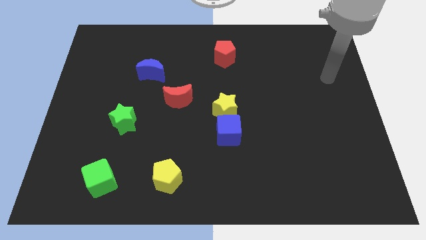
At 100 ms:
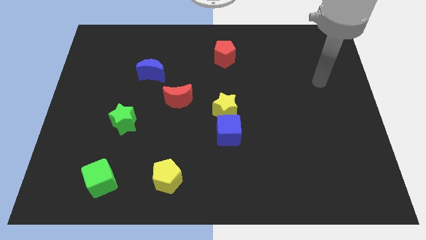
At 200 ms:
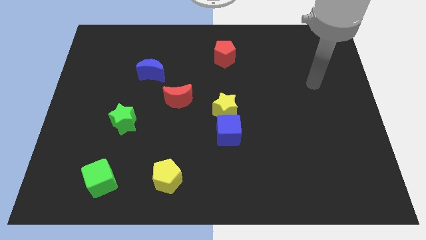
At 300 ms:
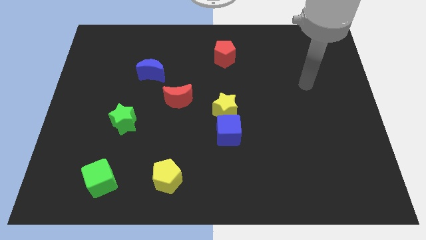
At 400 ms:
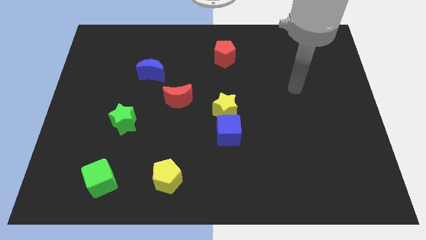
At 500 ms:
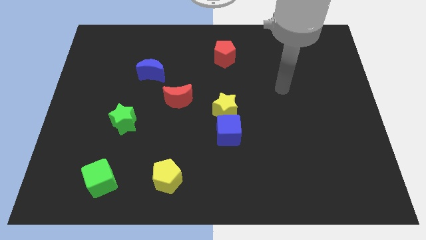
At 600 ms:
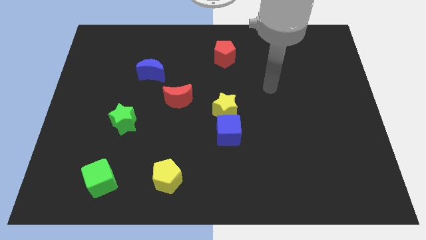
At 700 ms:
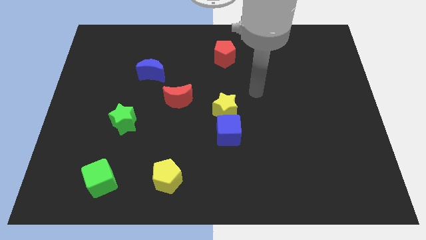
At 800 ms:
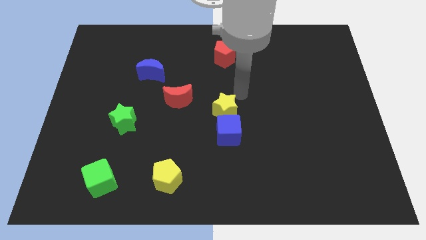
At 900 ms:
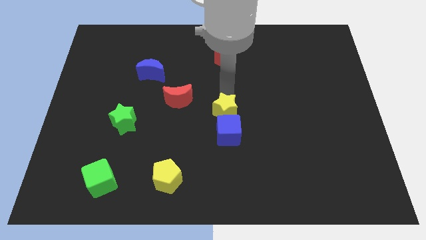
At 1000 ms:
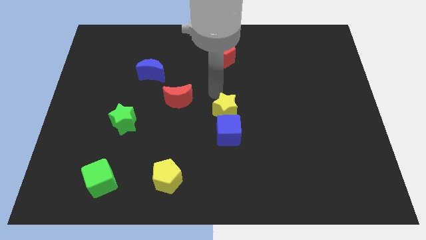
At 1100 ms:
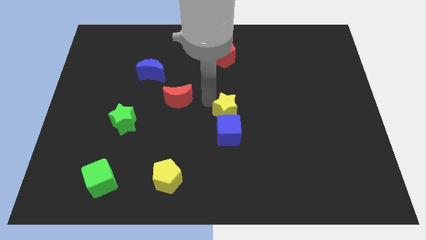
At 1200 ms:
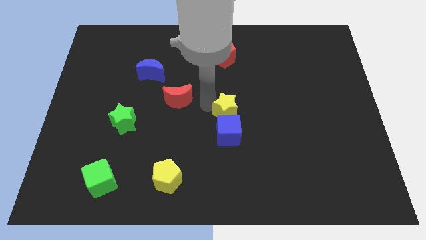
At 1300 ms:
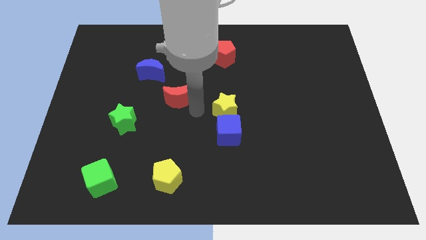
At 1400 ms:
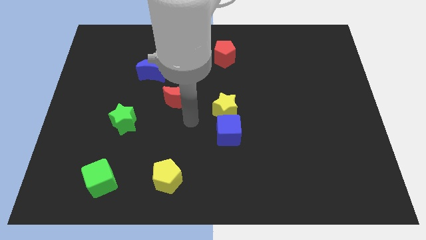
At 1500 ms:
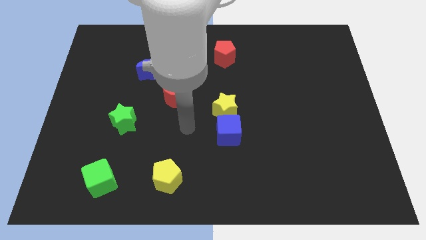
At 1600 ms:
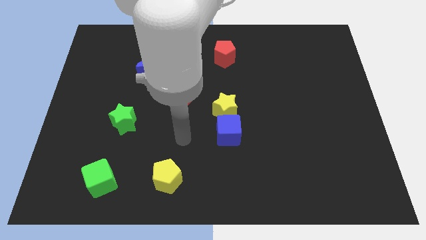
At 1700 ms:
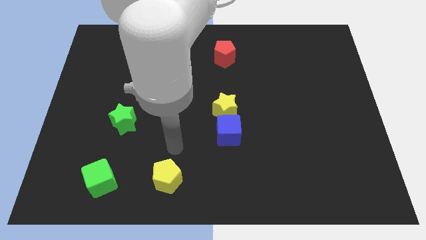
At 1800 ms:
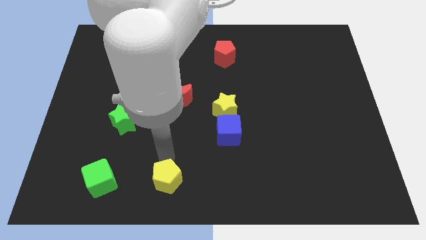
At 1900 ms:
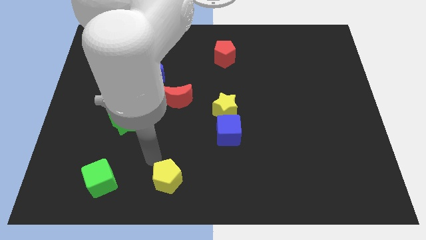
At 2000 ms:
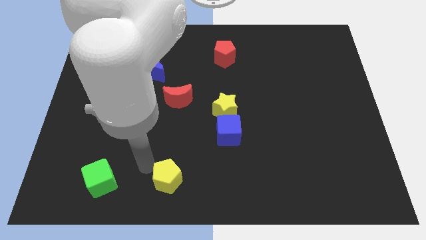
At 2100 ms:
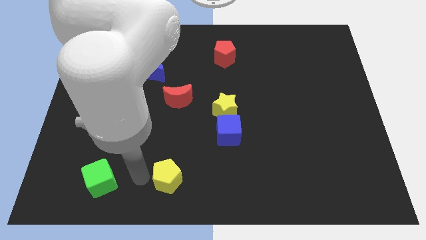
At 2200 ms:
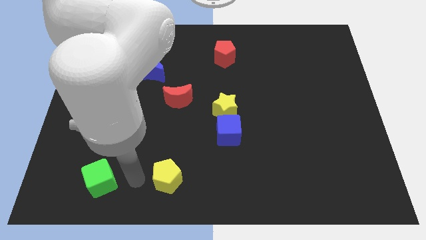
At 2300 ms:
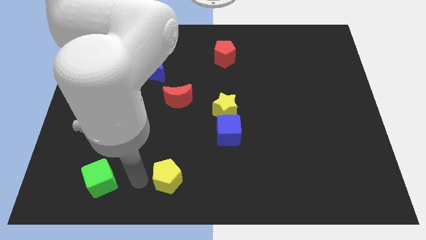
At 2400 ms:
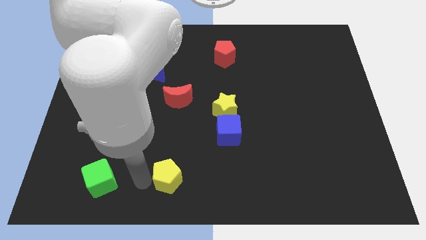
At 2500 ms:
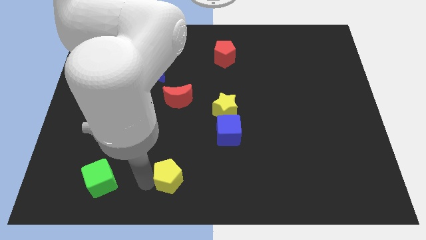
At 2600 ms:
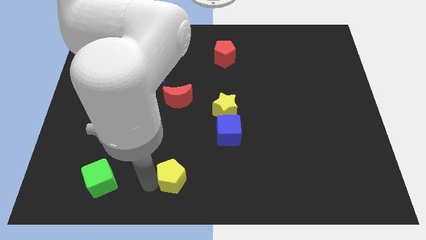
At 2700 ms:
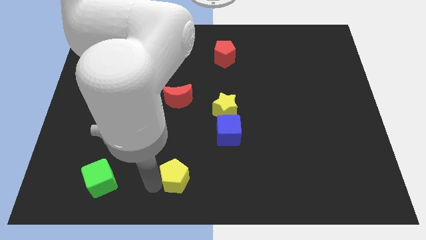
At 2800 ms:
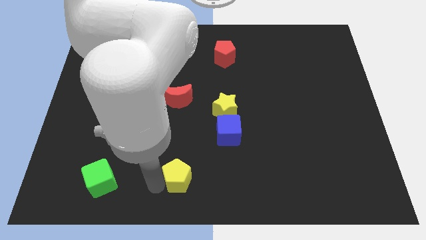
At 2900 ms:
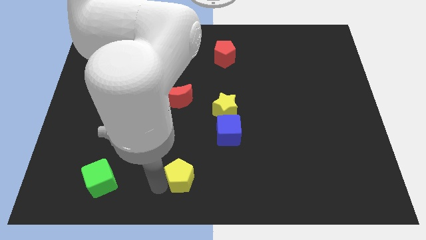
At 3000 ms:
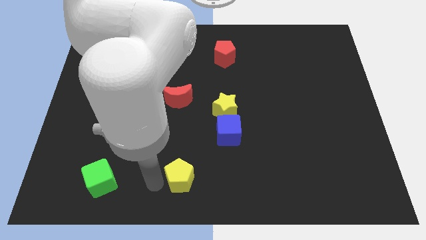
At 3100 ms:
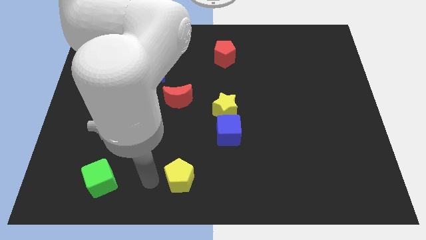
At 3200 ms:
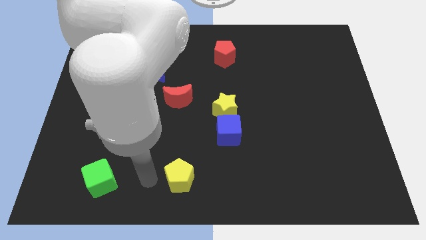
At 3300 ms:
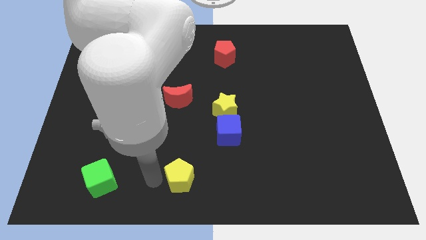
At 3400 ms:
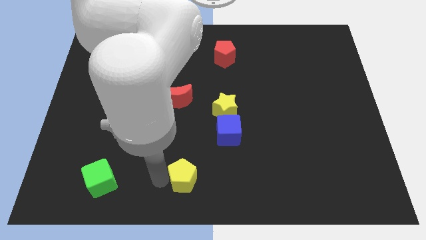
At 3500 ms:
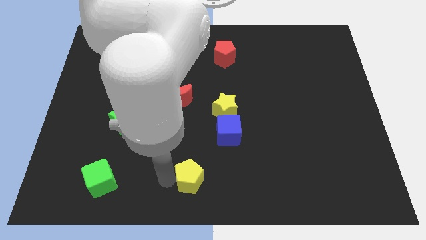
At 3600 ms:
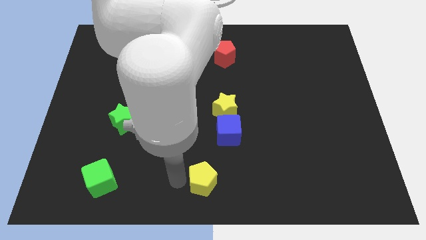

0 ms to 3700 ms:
slightly push the yellow pentagon to the right

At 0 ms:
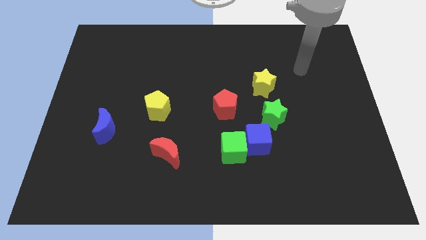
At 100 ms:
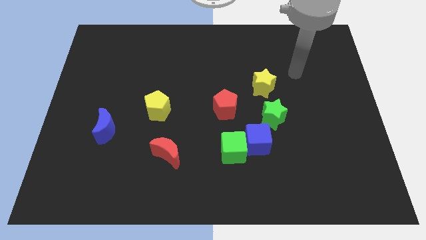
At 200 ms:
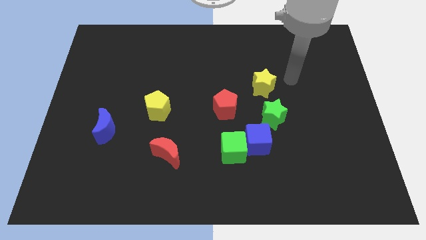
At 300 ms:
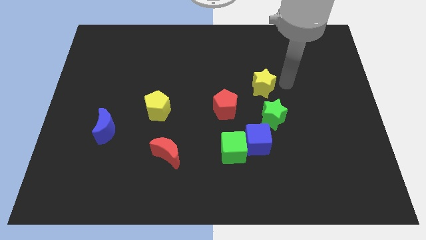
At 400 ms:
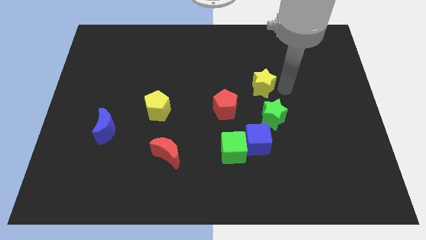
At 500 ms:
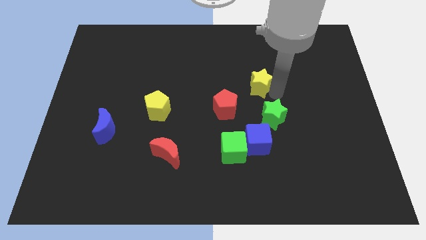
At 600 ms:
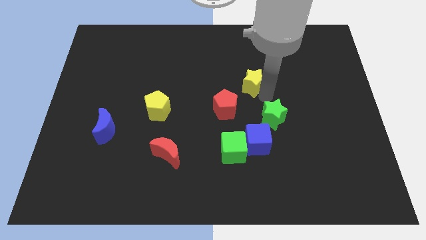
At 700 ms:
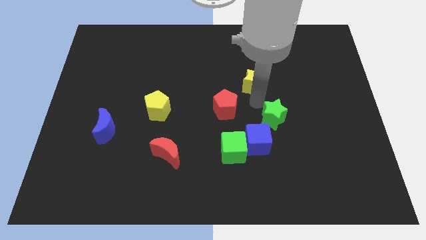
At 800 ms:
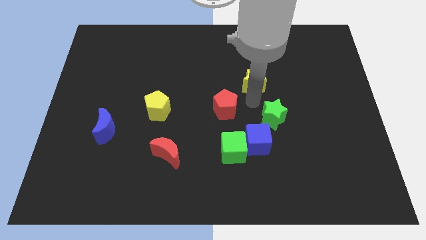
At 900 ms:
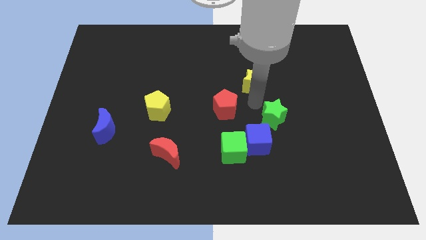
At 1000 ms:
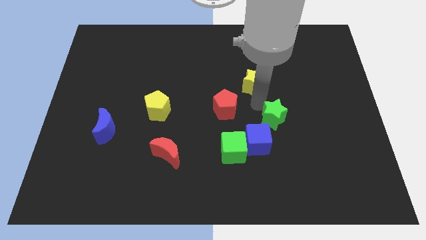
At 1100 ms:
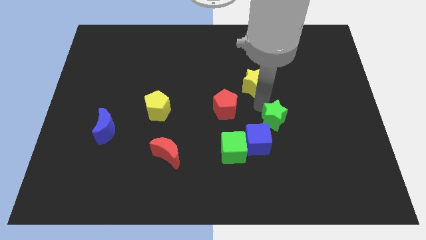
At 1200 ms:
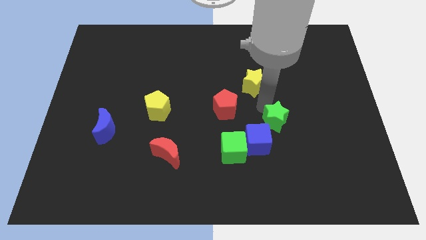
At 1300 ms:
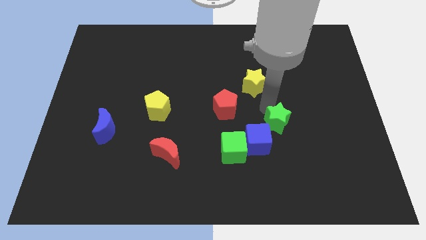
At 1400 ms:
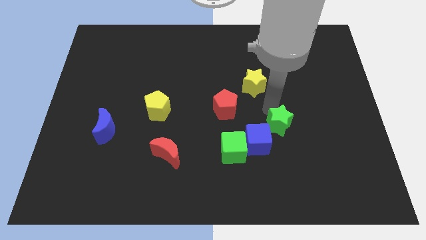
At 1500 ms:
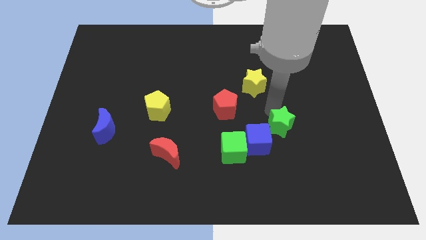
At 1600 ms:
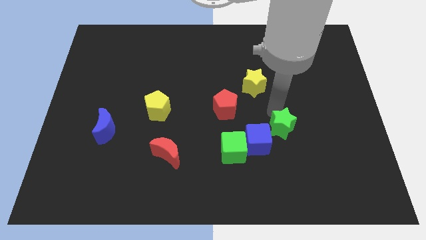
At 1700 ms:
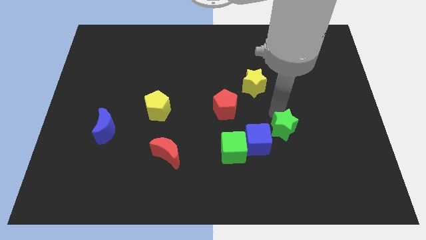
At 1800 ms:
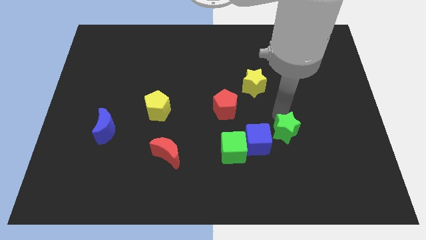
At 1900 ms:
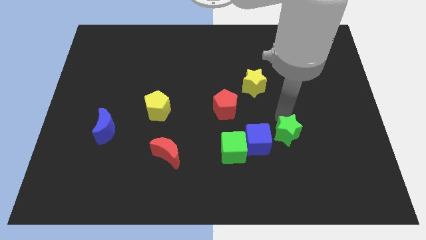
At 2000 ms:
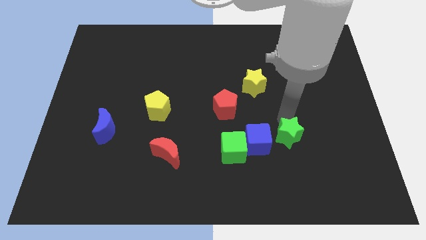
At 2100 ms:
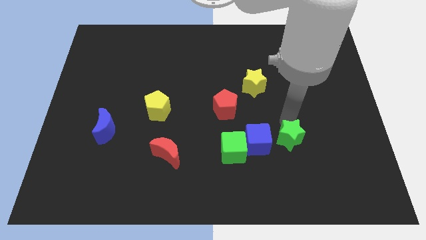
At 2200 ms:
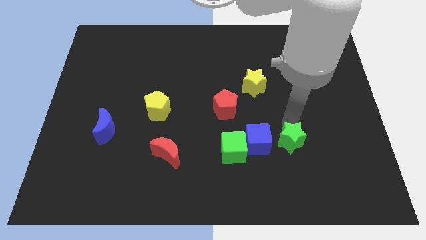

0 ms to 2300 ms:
push the green star somewhat downwards and to the right diagonally

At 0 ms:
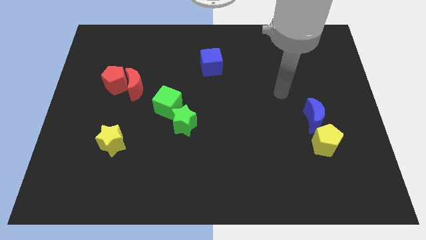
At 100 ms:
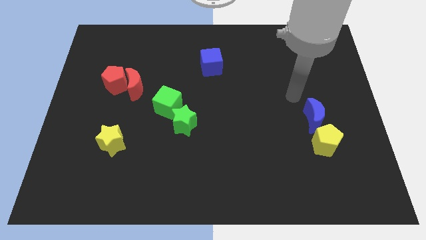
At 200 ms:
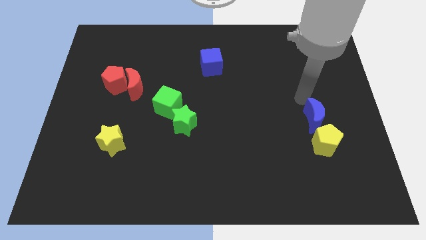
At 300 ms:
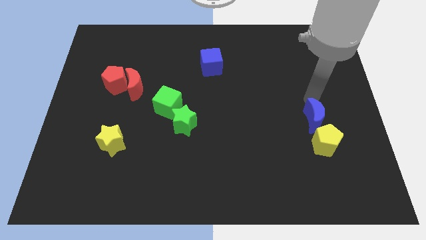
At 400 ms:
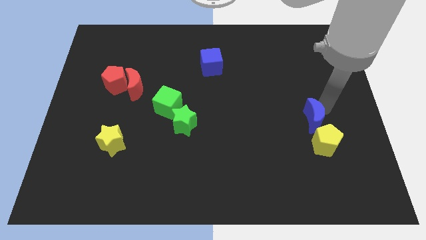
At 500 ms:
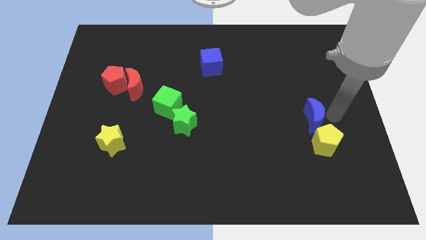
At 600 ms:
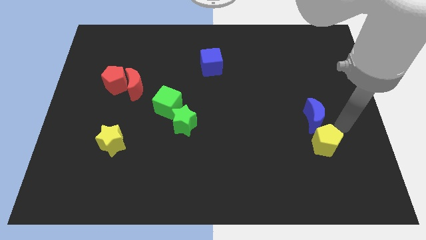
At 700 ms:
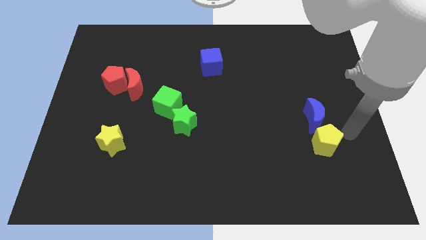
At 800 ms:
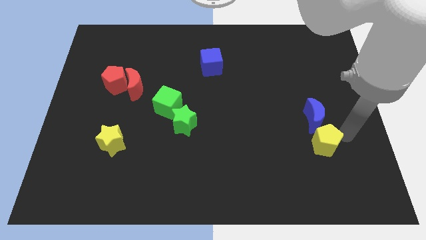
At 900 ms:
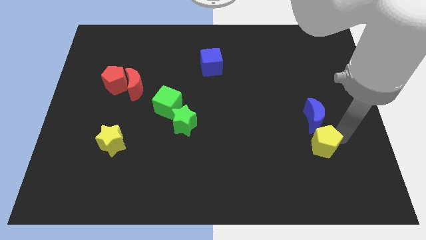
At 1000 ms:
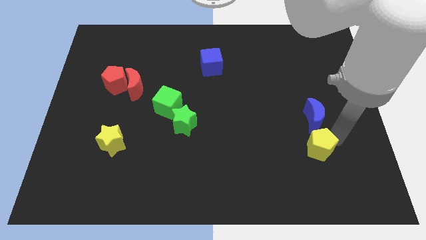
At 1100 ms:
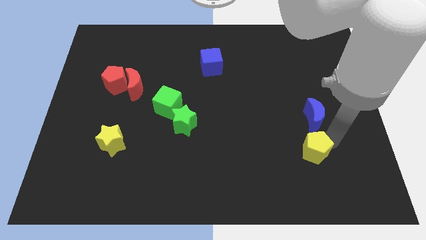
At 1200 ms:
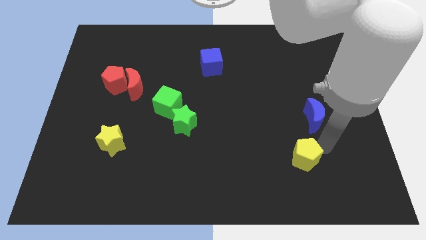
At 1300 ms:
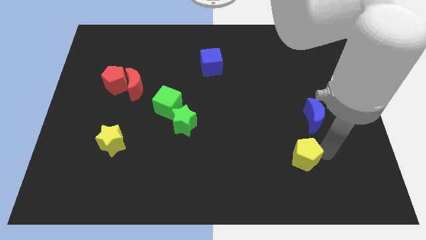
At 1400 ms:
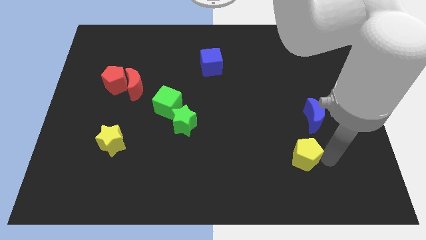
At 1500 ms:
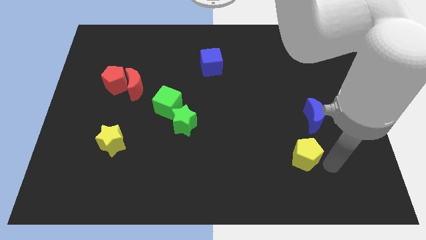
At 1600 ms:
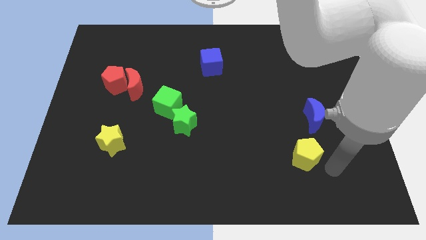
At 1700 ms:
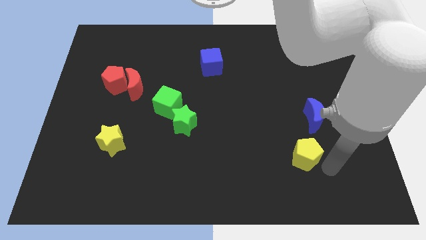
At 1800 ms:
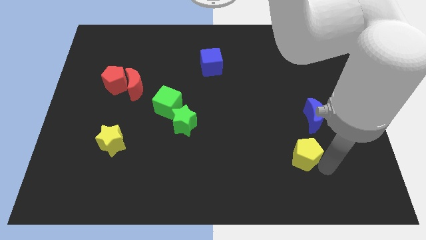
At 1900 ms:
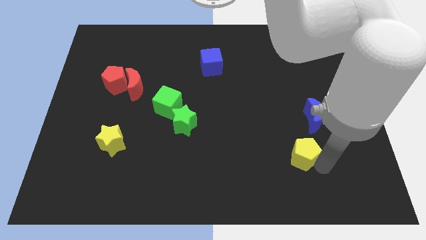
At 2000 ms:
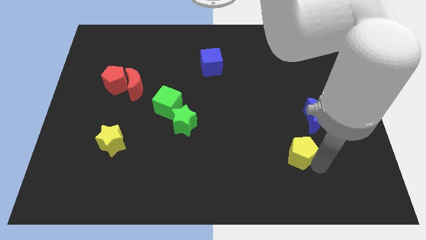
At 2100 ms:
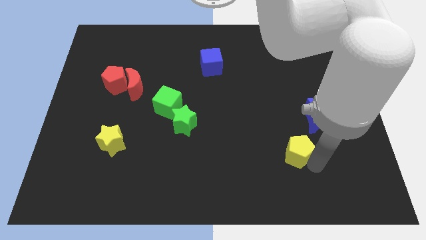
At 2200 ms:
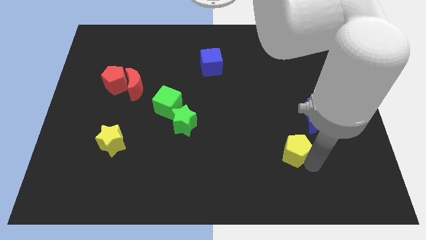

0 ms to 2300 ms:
slide the yellow pentagon a little to the left

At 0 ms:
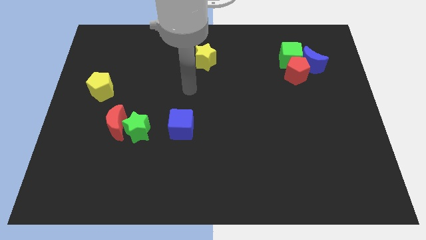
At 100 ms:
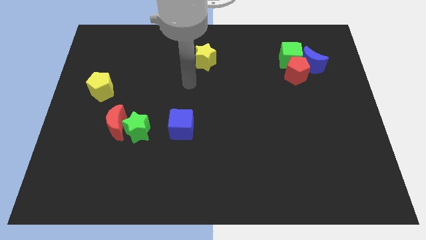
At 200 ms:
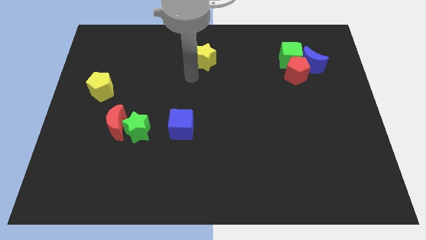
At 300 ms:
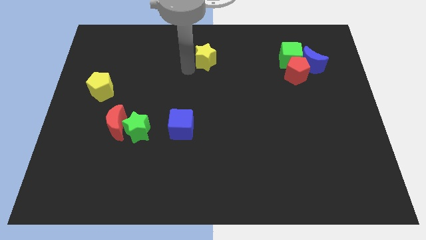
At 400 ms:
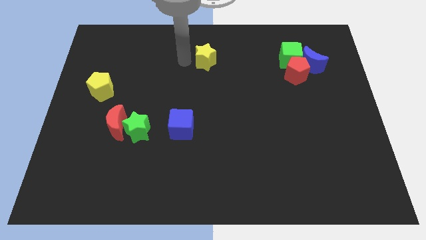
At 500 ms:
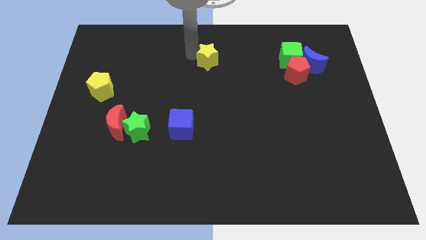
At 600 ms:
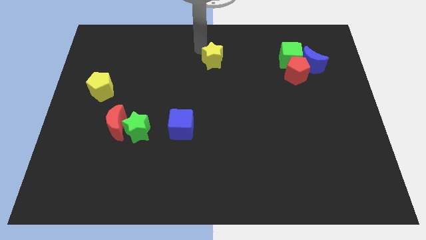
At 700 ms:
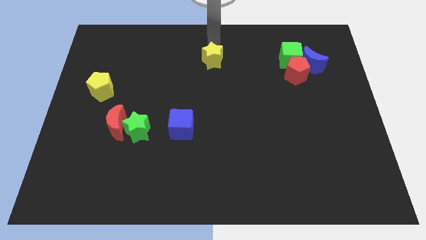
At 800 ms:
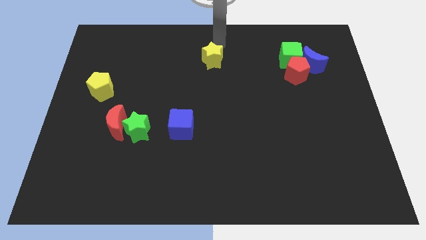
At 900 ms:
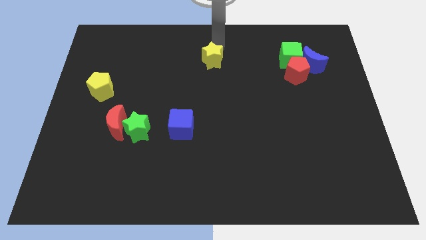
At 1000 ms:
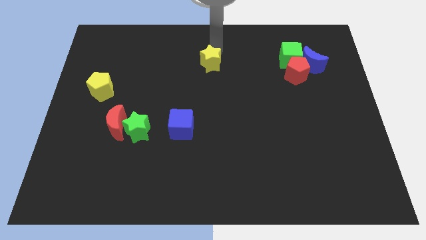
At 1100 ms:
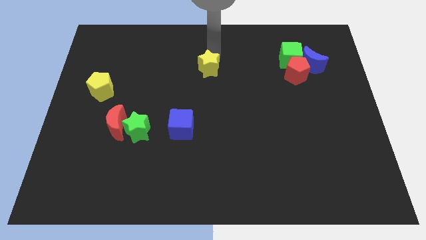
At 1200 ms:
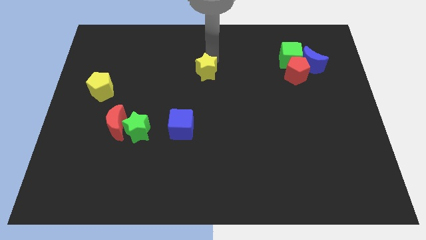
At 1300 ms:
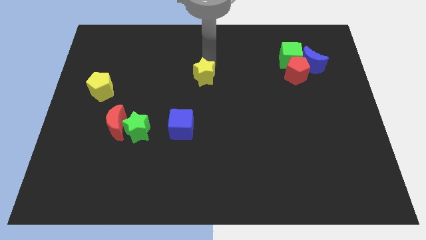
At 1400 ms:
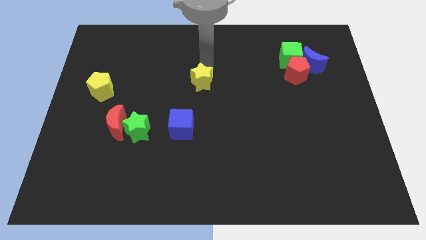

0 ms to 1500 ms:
slightly slide the yellow star down
